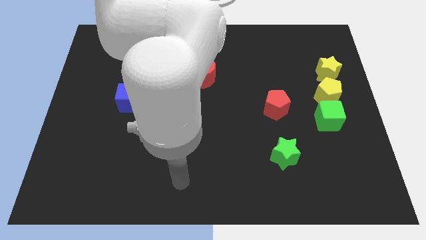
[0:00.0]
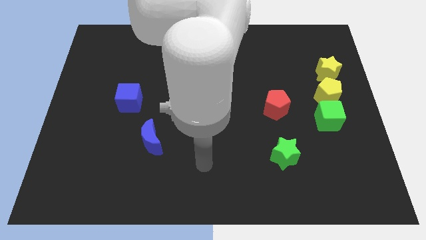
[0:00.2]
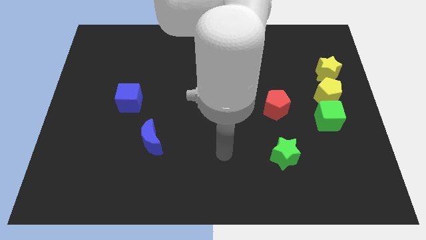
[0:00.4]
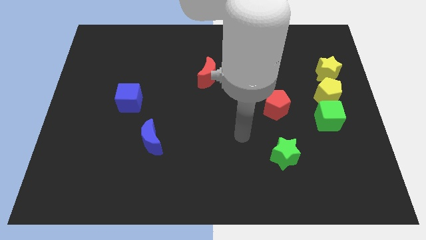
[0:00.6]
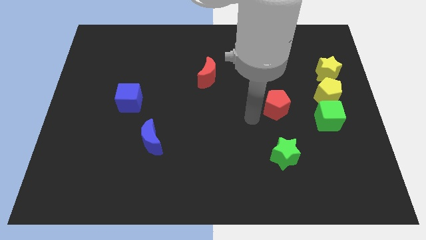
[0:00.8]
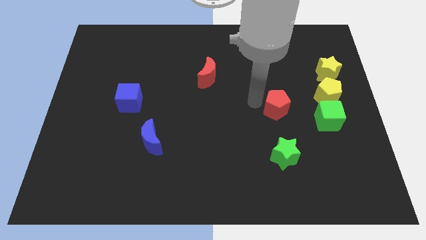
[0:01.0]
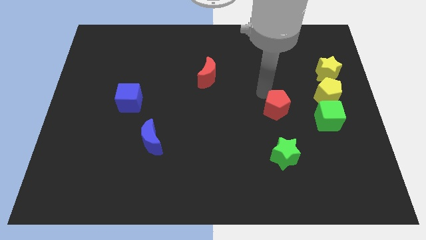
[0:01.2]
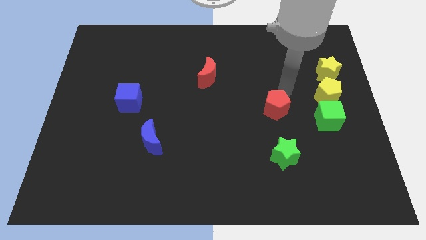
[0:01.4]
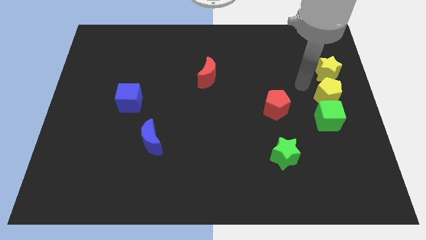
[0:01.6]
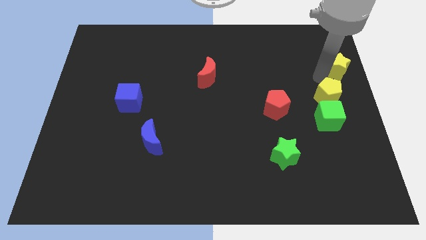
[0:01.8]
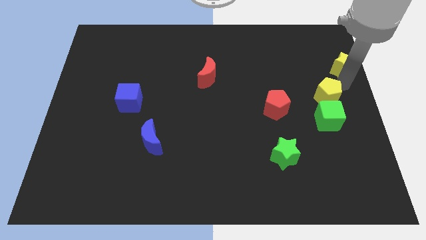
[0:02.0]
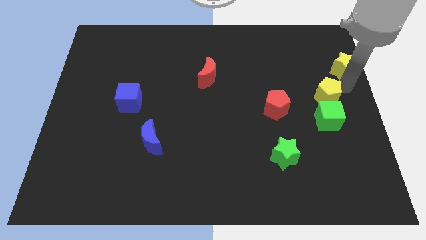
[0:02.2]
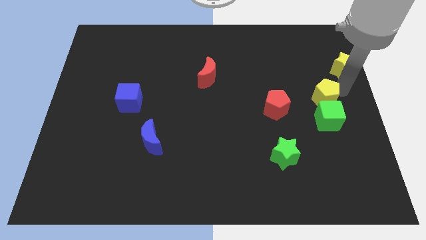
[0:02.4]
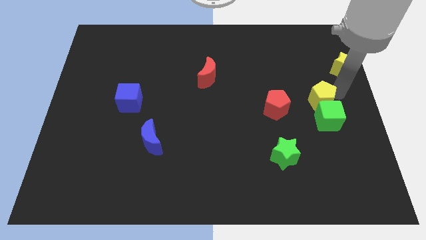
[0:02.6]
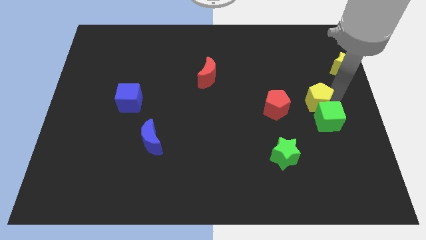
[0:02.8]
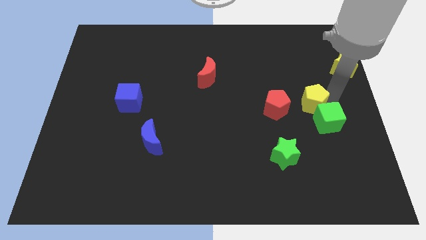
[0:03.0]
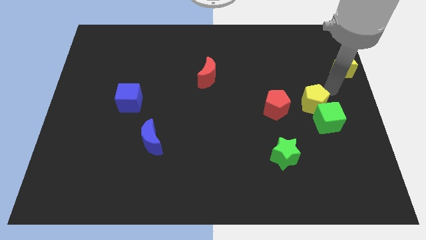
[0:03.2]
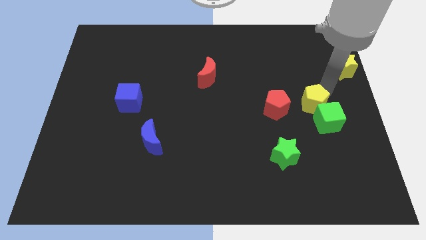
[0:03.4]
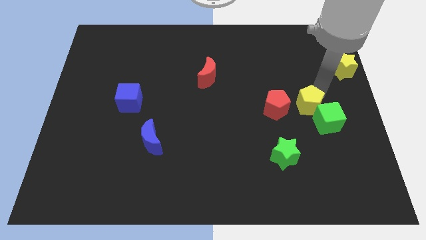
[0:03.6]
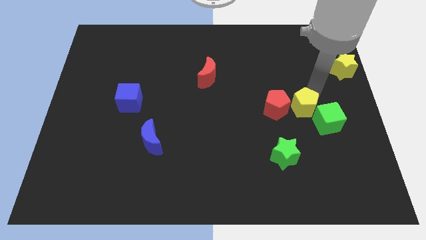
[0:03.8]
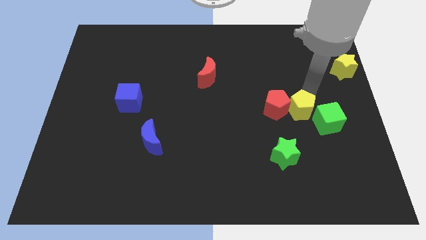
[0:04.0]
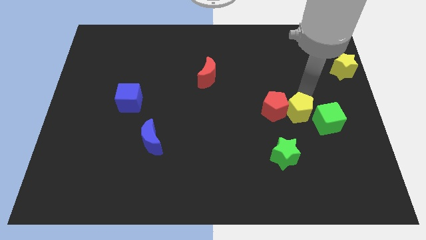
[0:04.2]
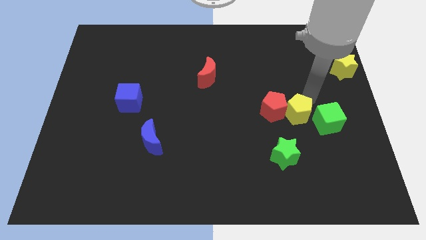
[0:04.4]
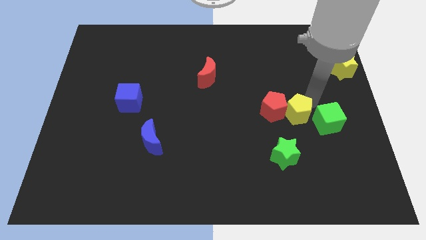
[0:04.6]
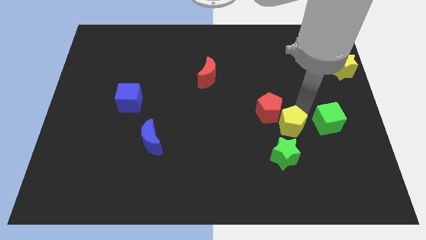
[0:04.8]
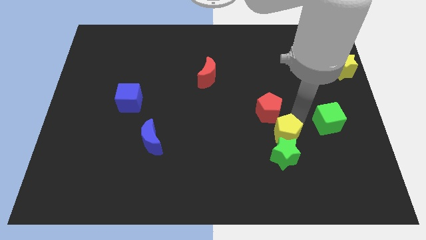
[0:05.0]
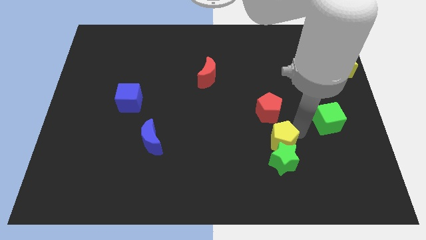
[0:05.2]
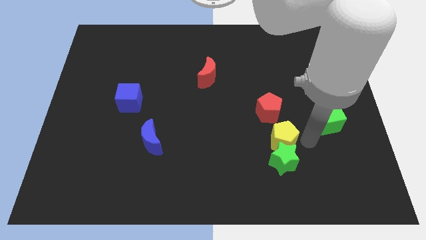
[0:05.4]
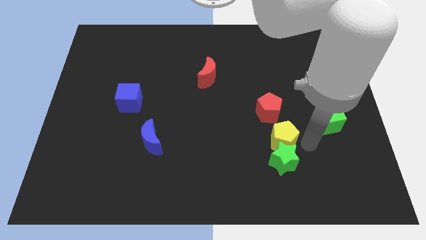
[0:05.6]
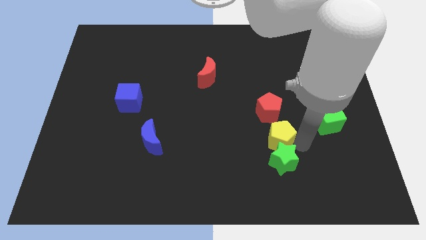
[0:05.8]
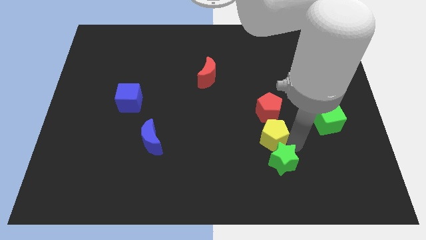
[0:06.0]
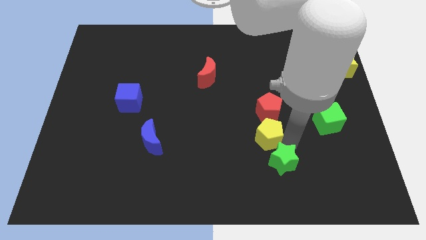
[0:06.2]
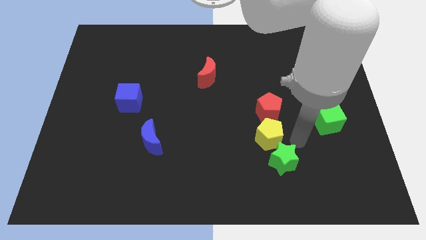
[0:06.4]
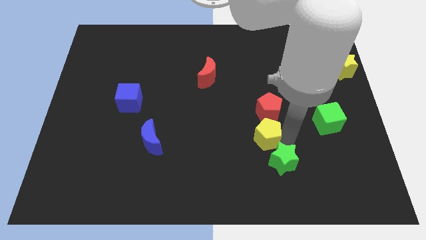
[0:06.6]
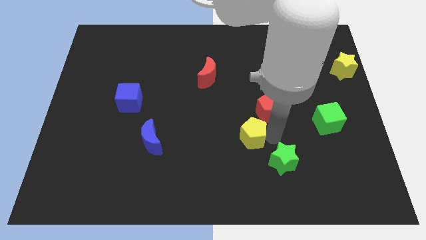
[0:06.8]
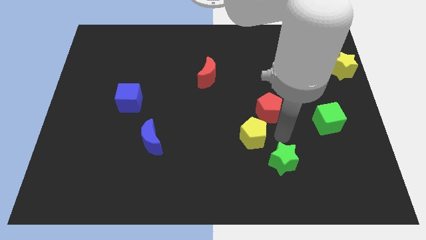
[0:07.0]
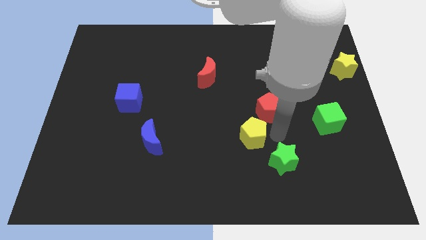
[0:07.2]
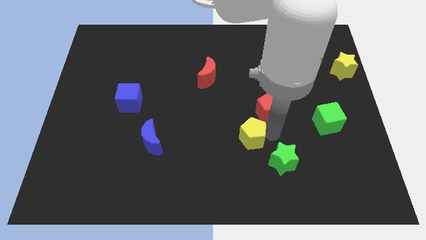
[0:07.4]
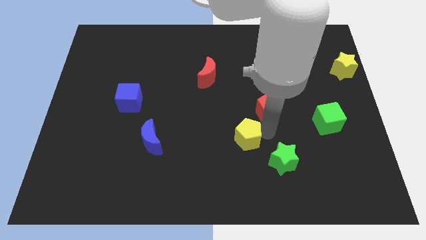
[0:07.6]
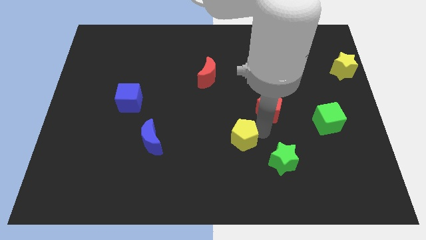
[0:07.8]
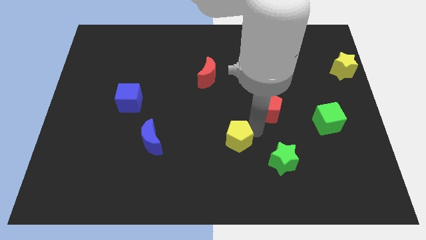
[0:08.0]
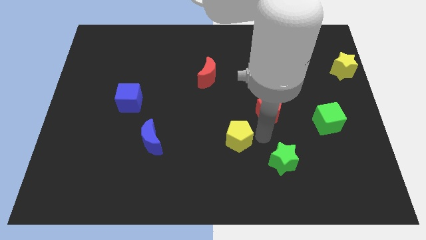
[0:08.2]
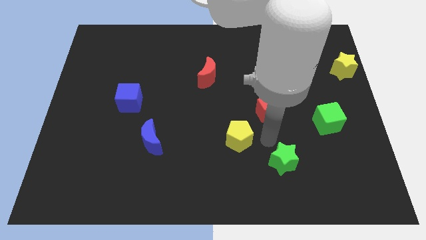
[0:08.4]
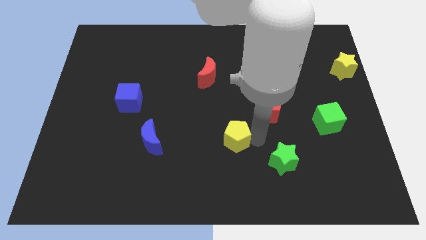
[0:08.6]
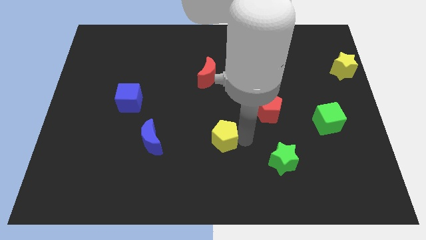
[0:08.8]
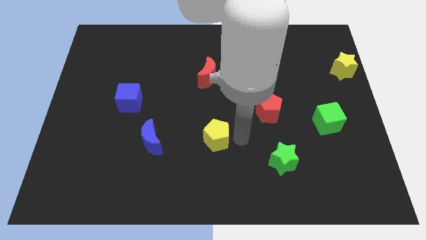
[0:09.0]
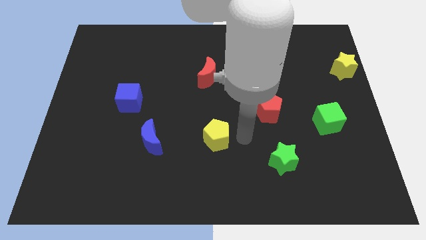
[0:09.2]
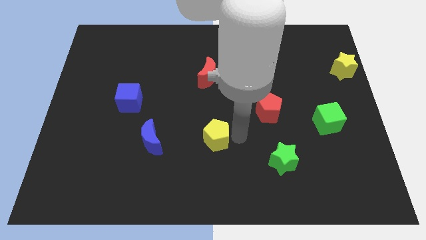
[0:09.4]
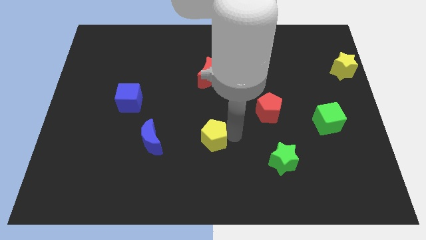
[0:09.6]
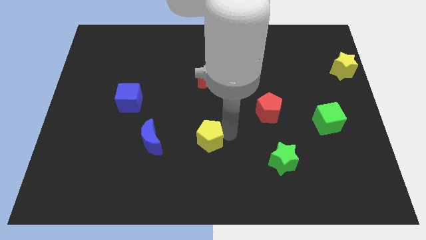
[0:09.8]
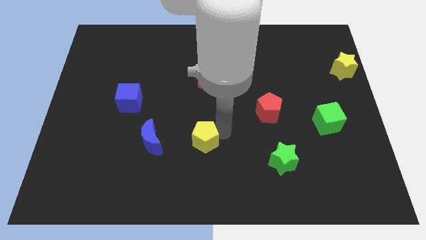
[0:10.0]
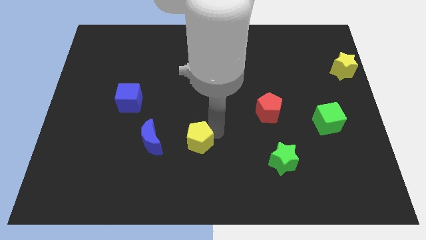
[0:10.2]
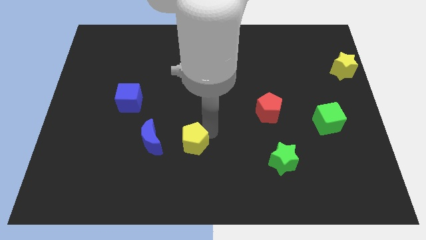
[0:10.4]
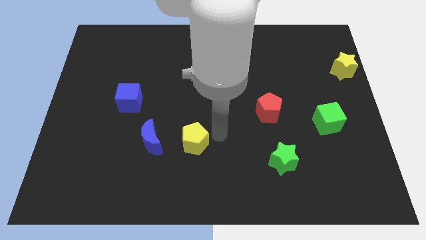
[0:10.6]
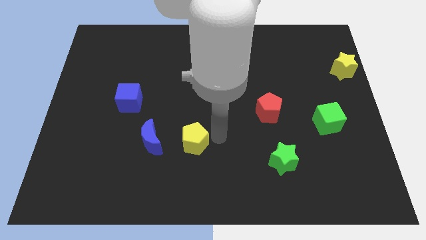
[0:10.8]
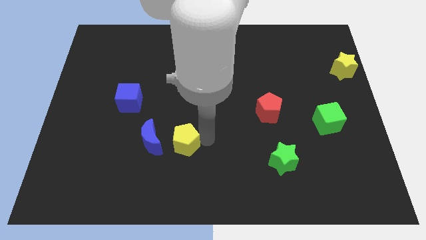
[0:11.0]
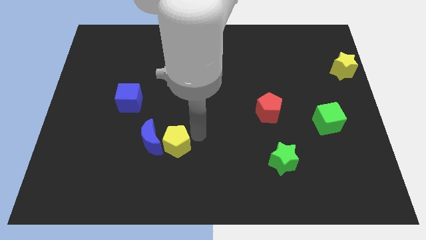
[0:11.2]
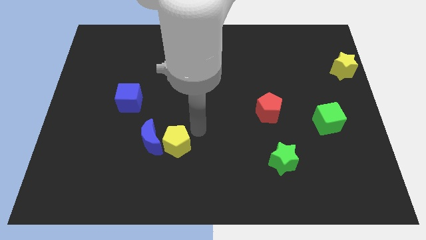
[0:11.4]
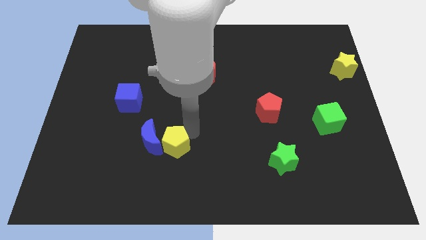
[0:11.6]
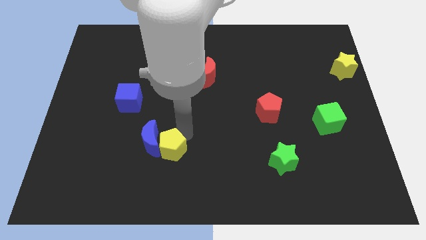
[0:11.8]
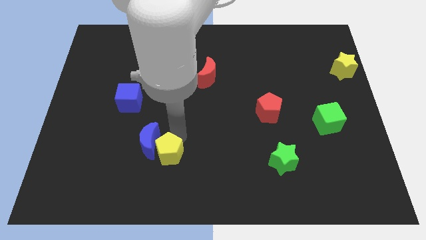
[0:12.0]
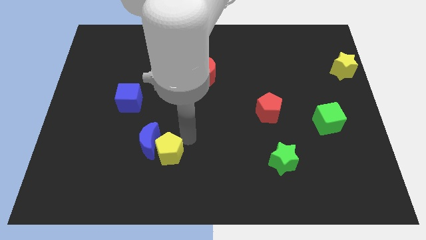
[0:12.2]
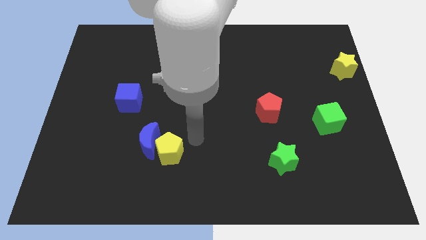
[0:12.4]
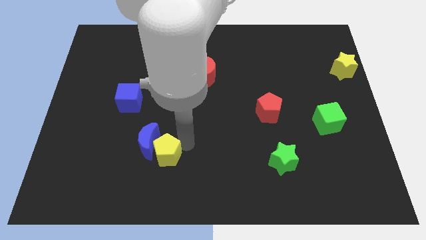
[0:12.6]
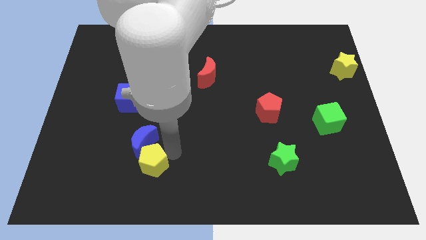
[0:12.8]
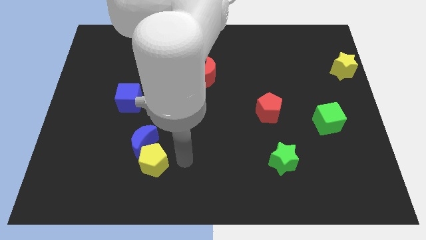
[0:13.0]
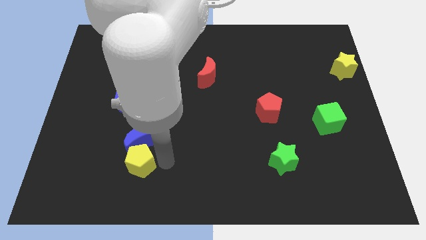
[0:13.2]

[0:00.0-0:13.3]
slide the yellow pentagon diagonally down and to the left of the blue moon

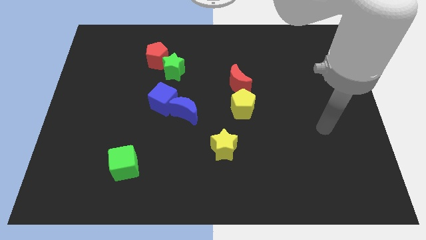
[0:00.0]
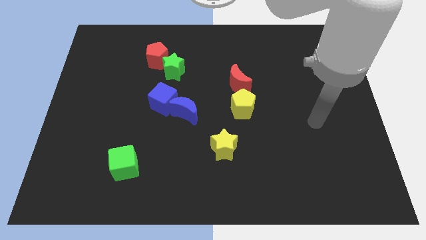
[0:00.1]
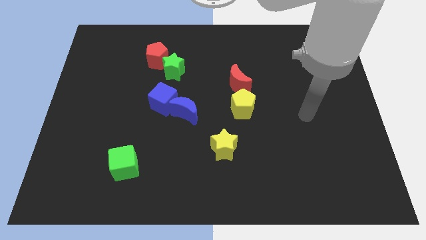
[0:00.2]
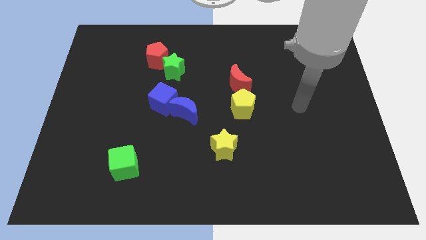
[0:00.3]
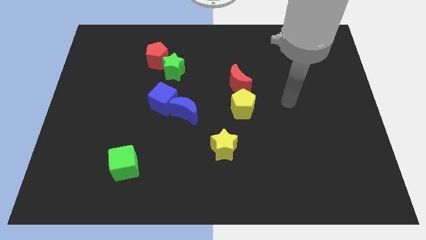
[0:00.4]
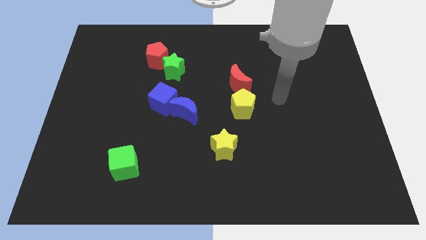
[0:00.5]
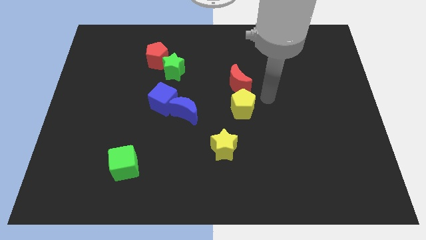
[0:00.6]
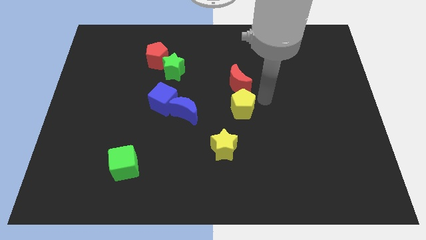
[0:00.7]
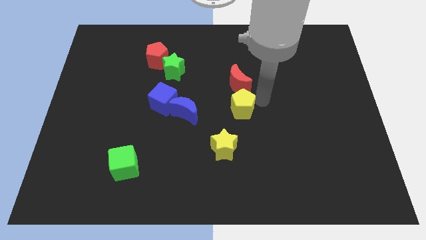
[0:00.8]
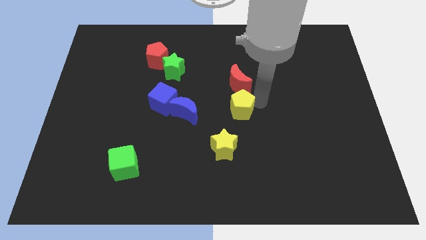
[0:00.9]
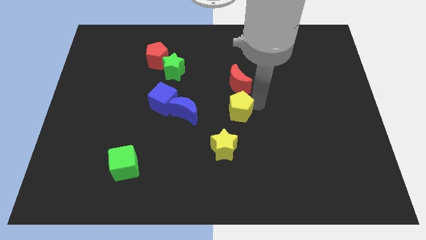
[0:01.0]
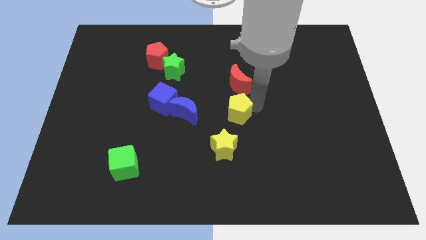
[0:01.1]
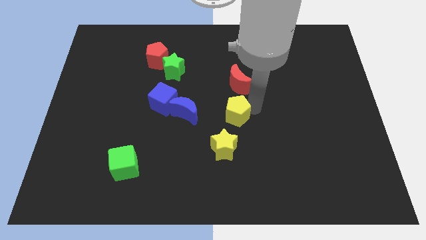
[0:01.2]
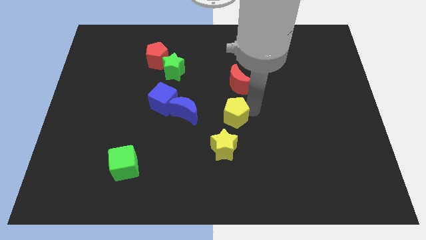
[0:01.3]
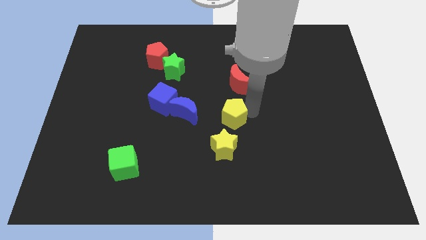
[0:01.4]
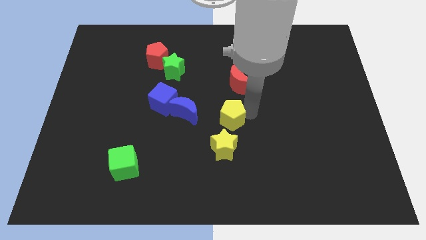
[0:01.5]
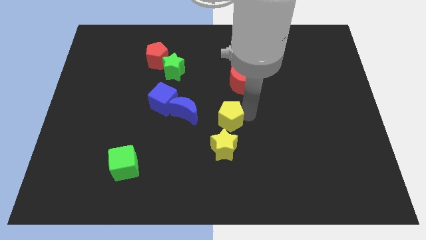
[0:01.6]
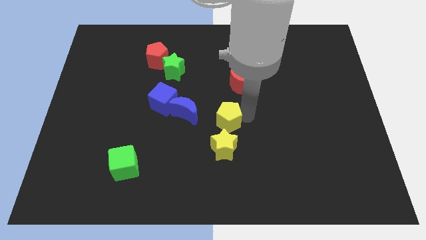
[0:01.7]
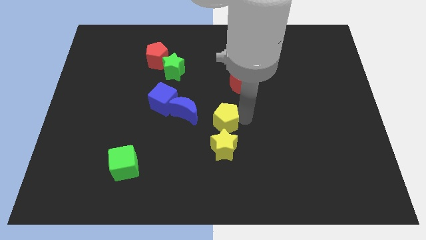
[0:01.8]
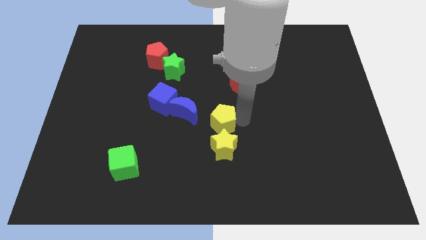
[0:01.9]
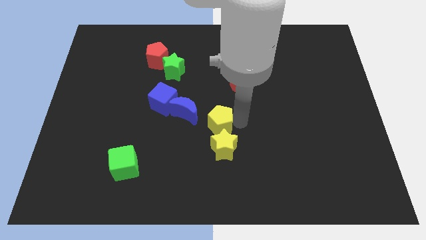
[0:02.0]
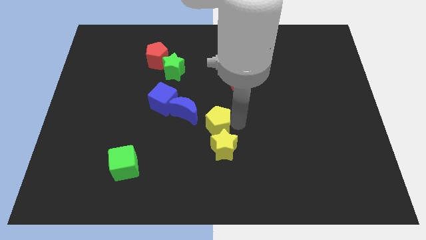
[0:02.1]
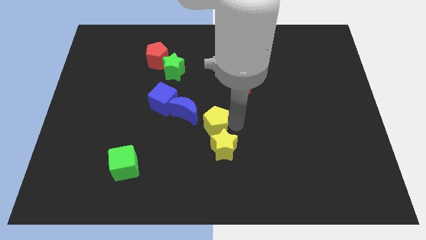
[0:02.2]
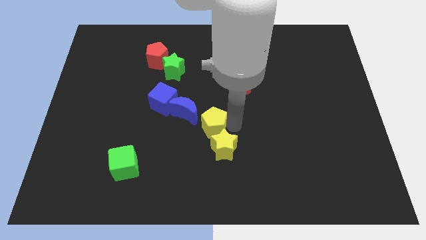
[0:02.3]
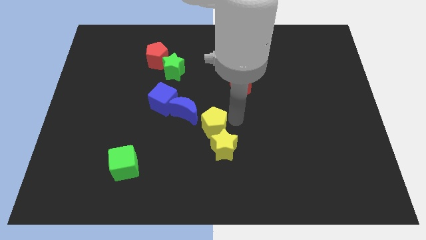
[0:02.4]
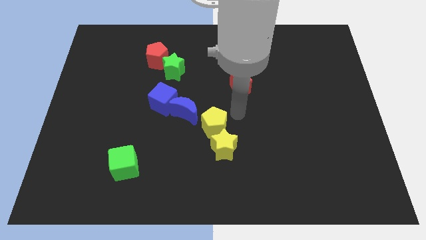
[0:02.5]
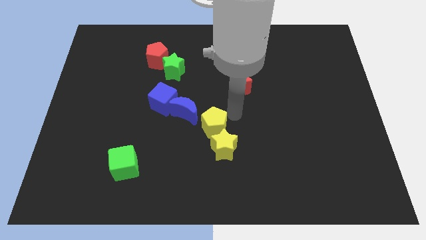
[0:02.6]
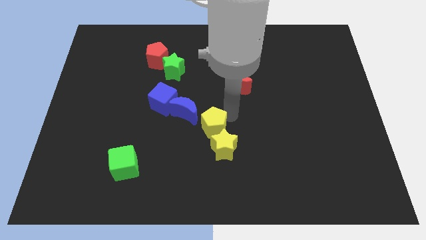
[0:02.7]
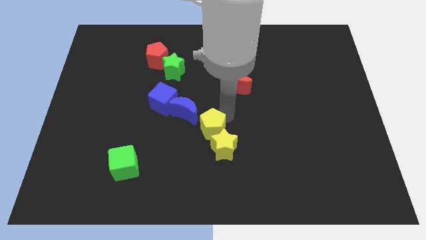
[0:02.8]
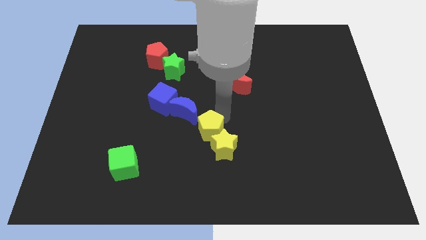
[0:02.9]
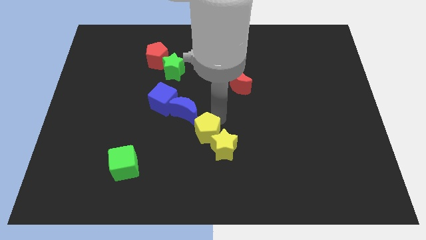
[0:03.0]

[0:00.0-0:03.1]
push the yellow pentagon left of the yellow star
